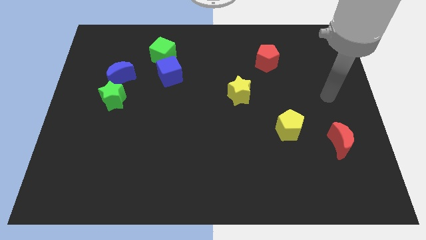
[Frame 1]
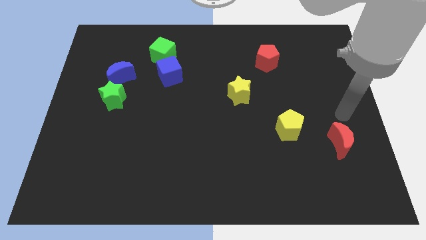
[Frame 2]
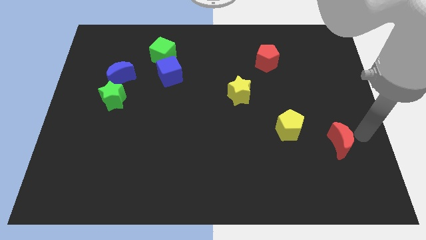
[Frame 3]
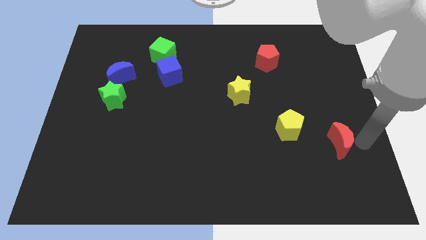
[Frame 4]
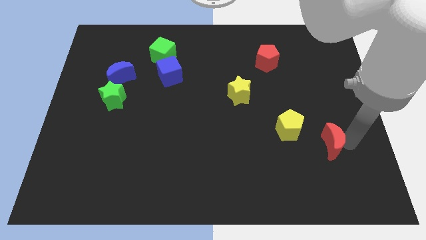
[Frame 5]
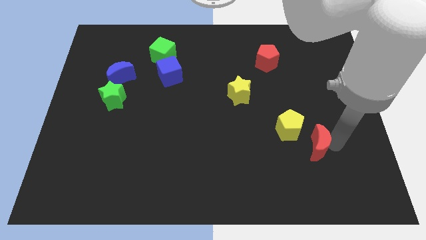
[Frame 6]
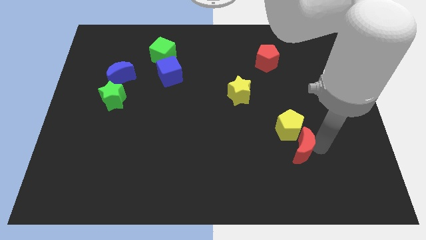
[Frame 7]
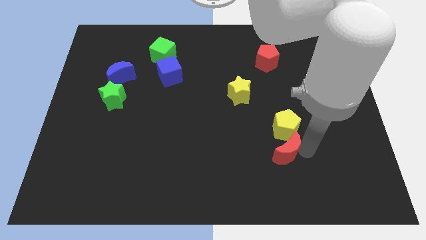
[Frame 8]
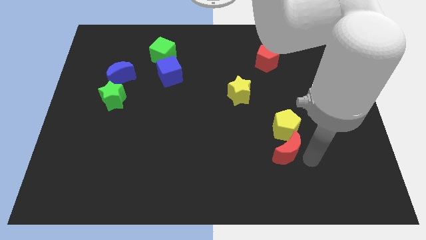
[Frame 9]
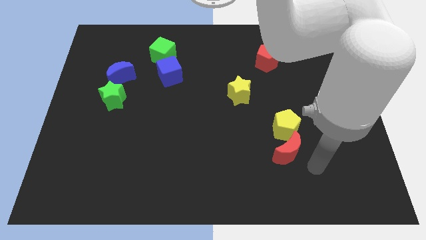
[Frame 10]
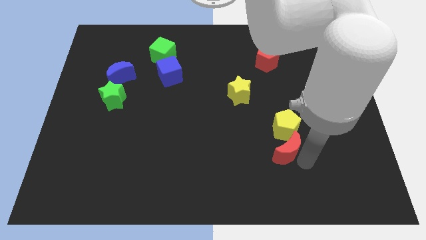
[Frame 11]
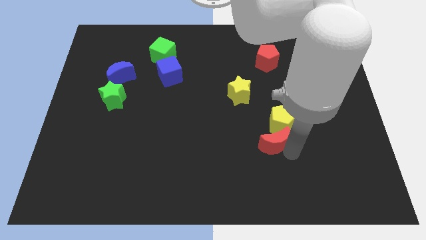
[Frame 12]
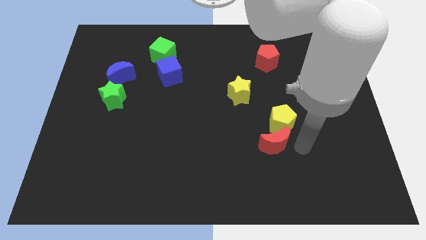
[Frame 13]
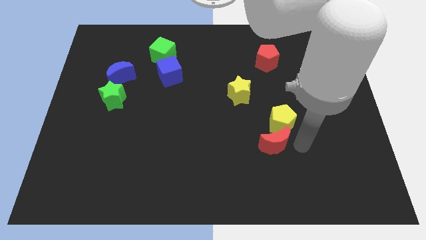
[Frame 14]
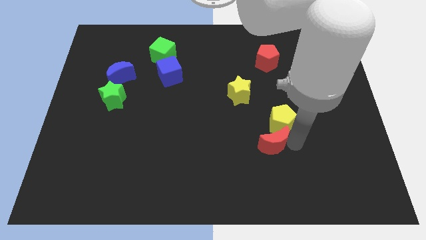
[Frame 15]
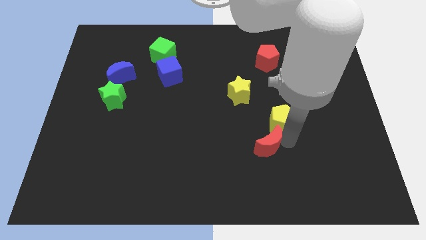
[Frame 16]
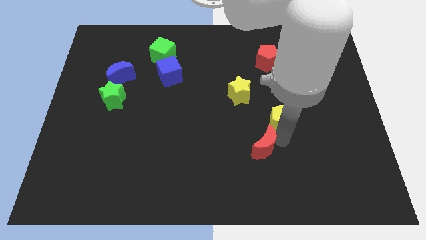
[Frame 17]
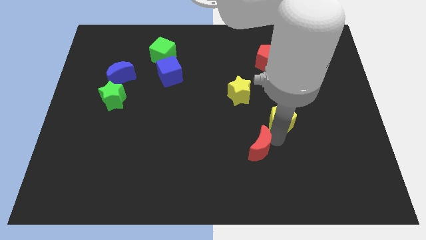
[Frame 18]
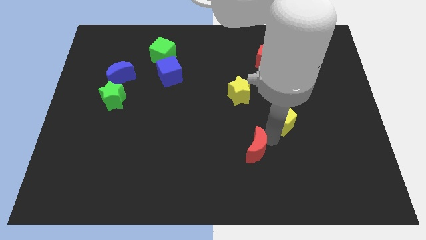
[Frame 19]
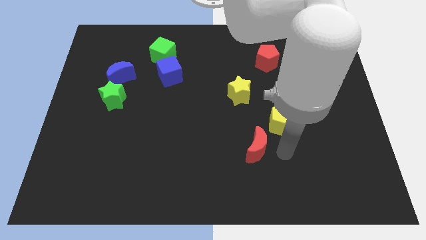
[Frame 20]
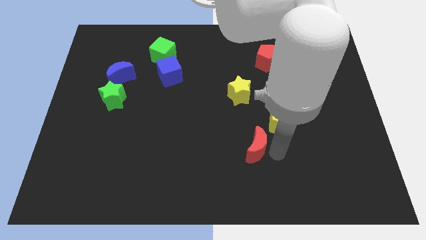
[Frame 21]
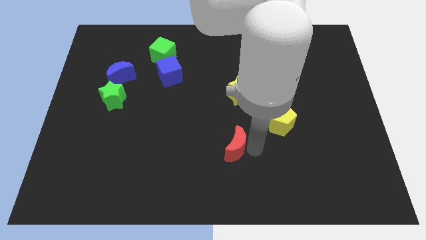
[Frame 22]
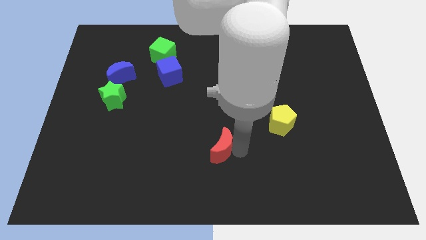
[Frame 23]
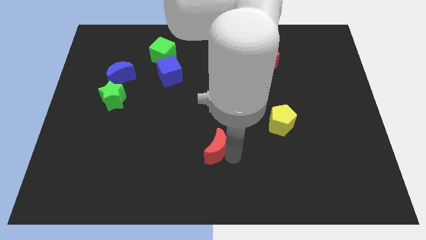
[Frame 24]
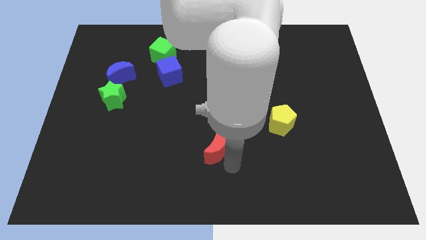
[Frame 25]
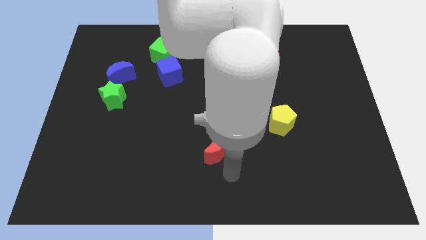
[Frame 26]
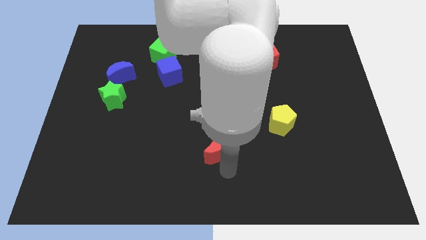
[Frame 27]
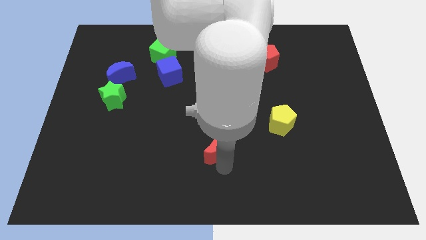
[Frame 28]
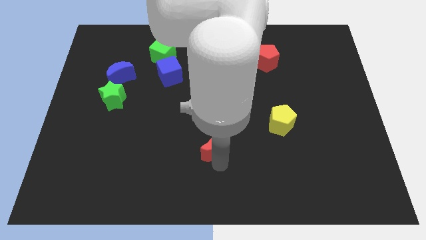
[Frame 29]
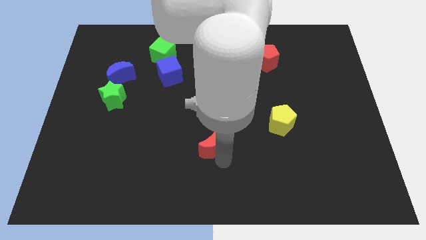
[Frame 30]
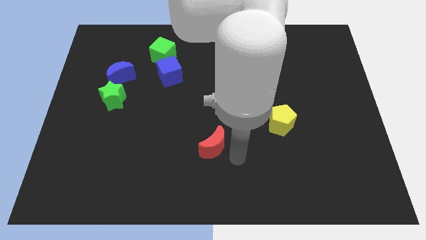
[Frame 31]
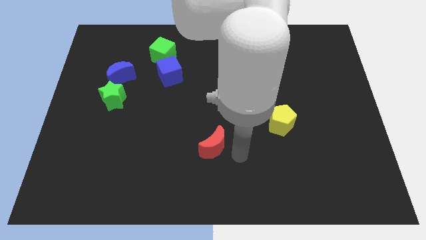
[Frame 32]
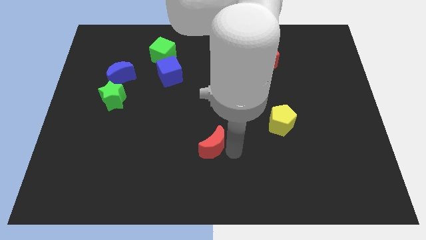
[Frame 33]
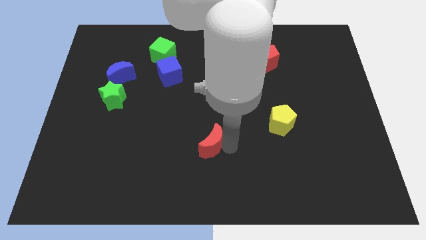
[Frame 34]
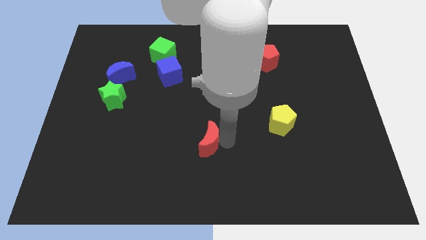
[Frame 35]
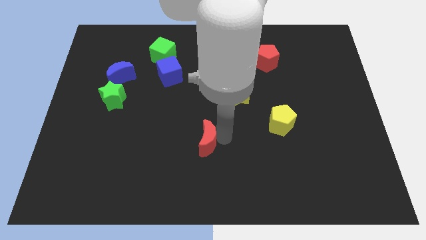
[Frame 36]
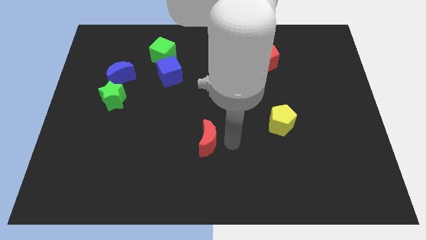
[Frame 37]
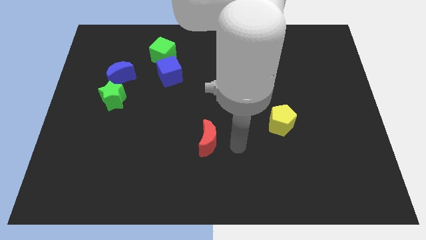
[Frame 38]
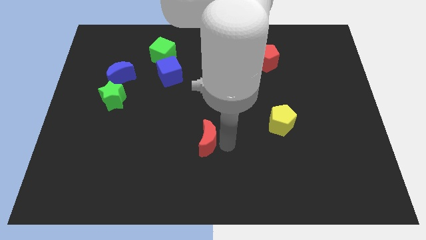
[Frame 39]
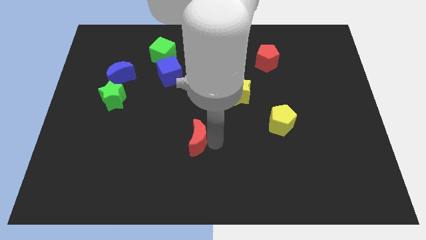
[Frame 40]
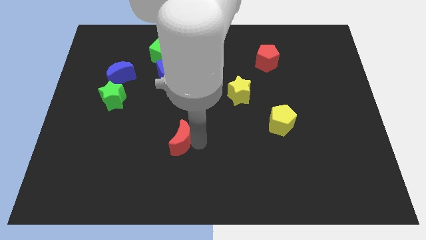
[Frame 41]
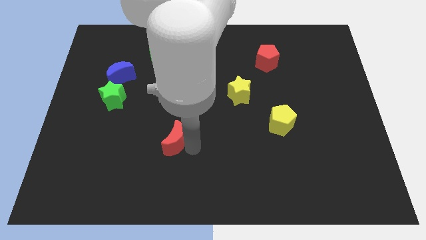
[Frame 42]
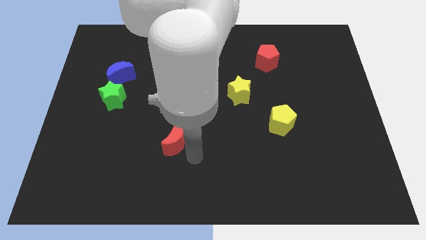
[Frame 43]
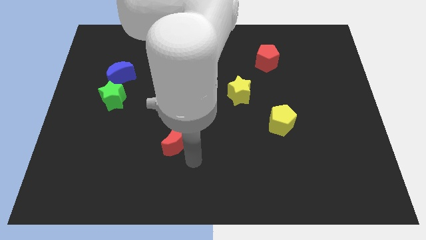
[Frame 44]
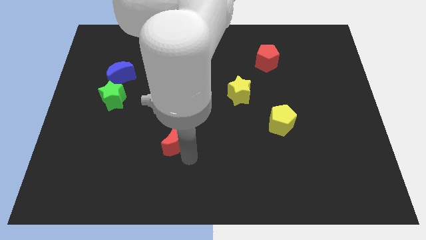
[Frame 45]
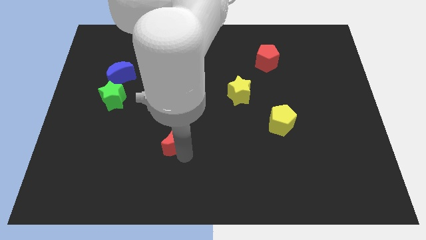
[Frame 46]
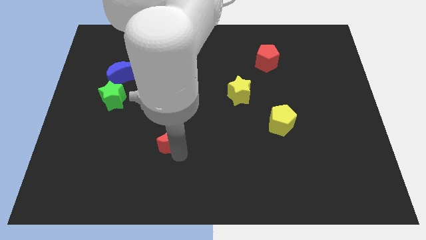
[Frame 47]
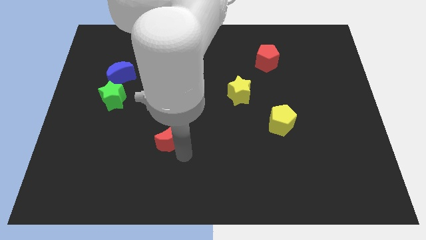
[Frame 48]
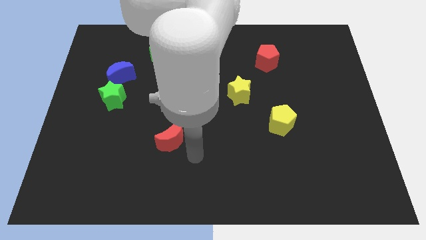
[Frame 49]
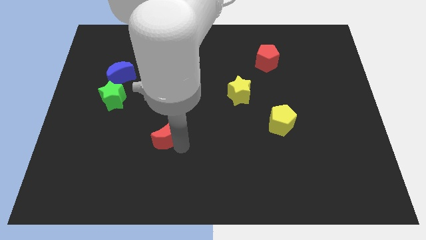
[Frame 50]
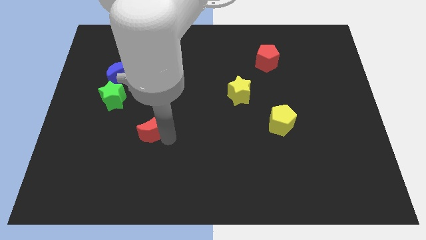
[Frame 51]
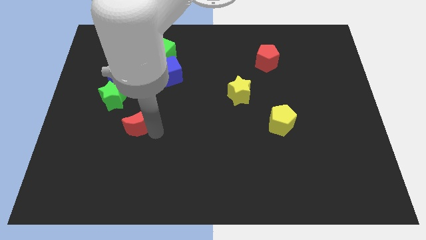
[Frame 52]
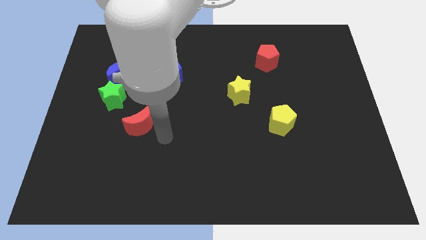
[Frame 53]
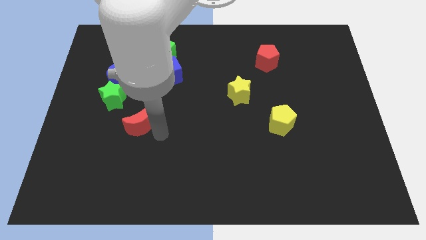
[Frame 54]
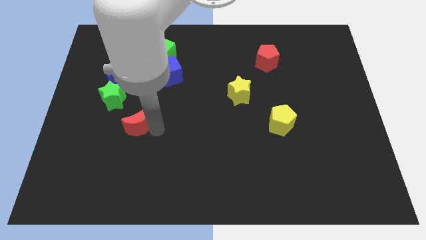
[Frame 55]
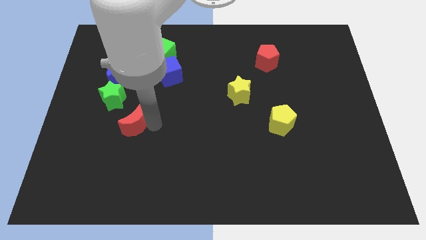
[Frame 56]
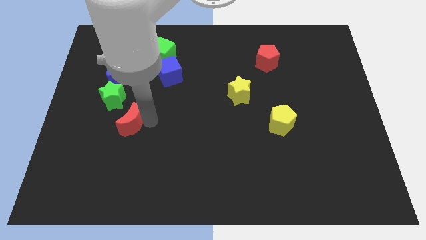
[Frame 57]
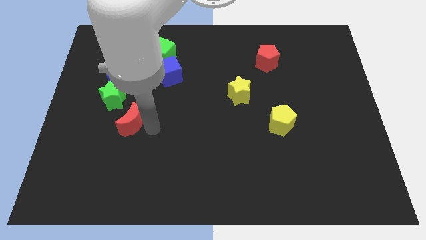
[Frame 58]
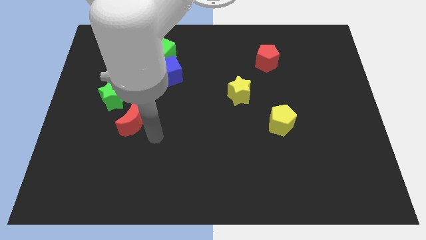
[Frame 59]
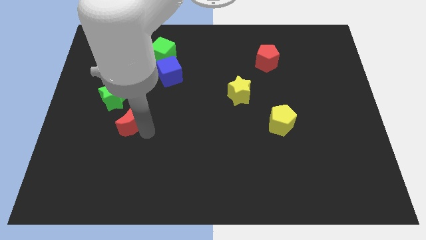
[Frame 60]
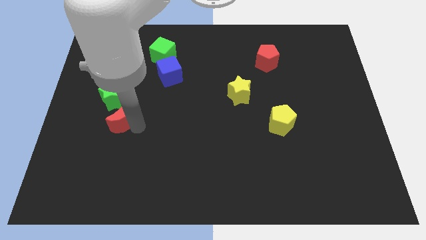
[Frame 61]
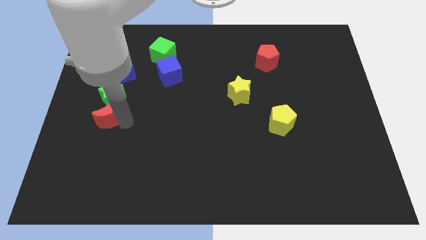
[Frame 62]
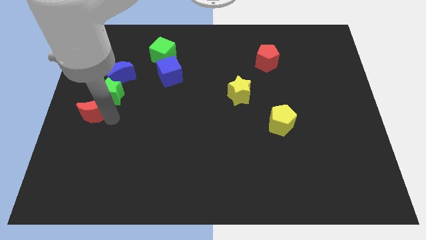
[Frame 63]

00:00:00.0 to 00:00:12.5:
move the red moon to the center left

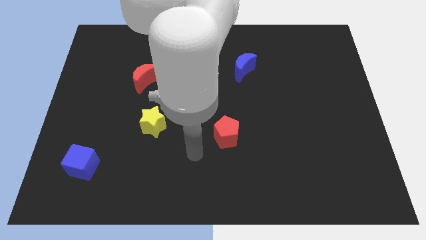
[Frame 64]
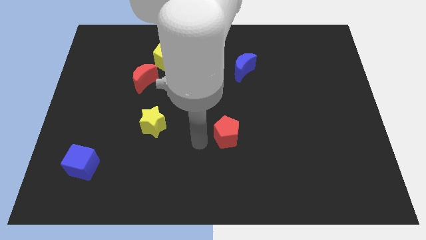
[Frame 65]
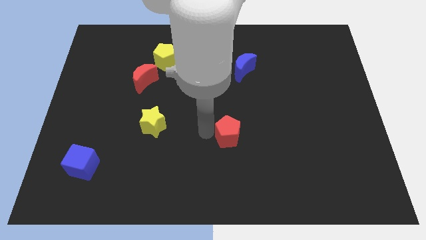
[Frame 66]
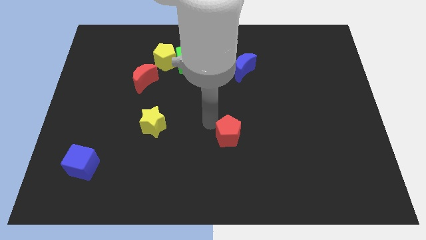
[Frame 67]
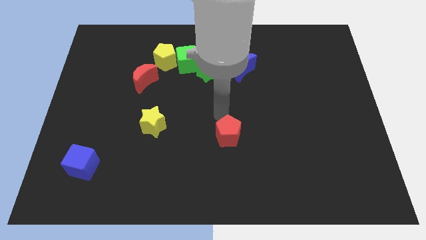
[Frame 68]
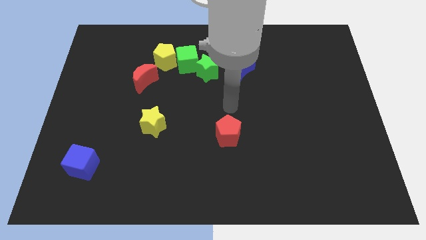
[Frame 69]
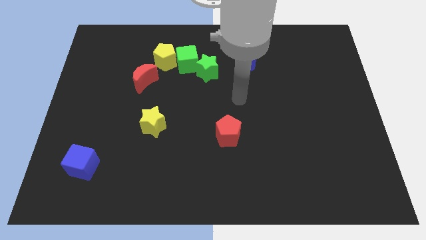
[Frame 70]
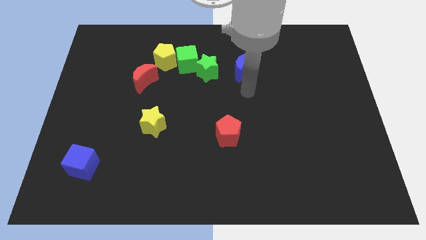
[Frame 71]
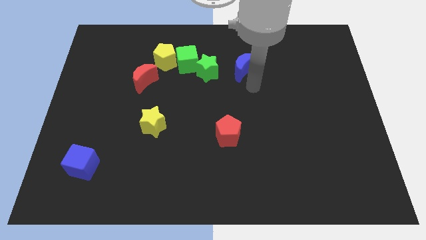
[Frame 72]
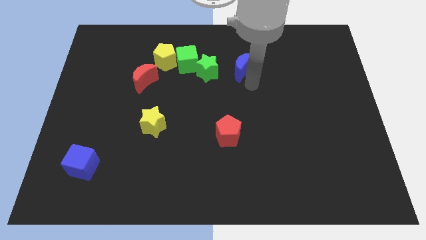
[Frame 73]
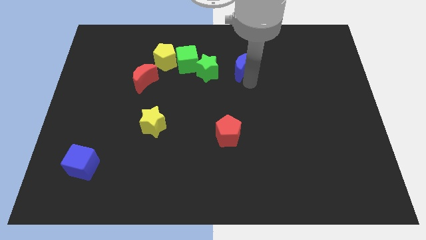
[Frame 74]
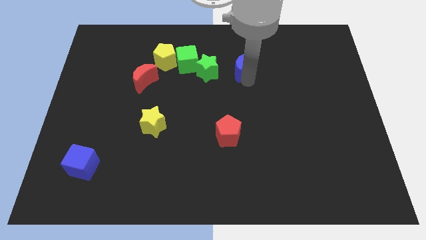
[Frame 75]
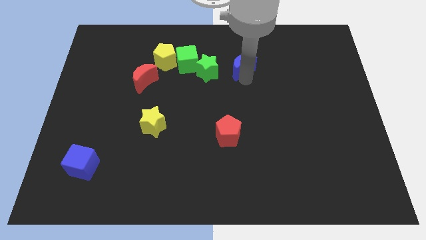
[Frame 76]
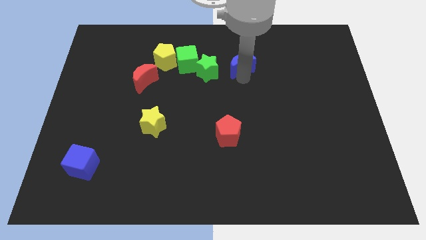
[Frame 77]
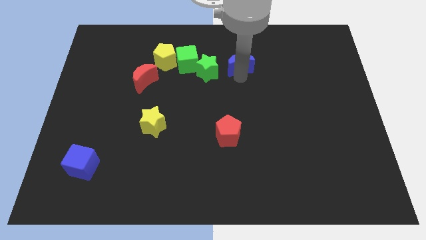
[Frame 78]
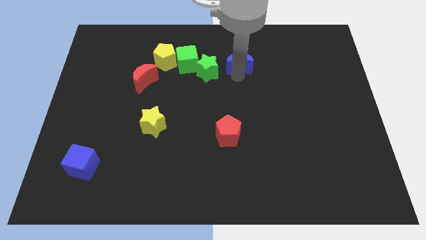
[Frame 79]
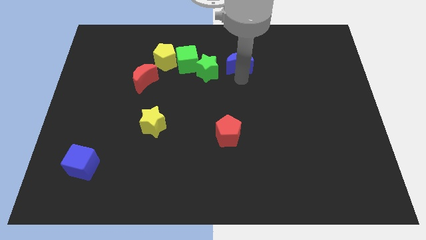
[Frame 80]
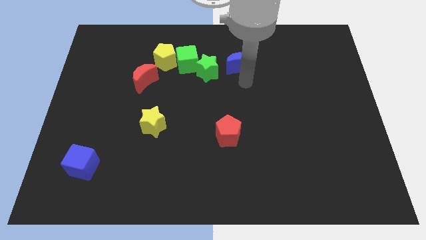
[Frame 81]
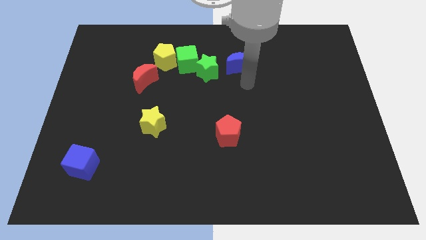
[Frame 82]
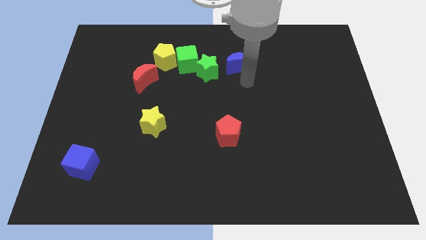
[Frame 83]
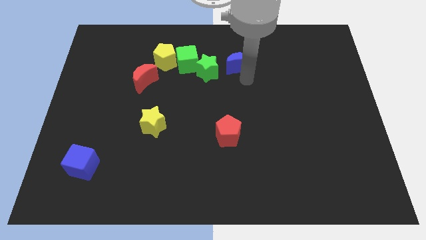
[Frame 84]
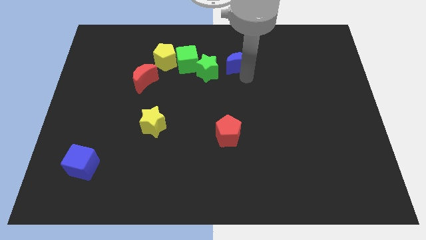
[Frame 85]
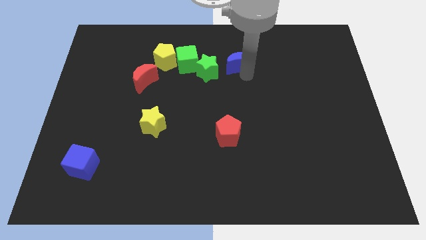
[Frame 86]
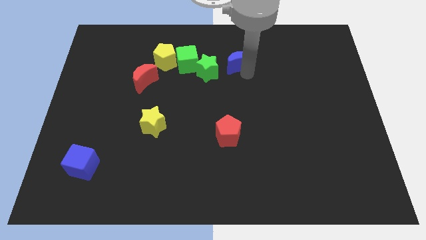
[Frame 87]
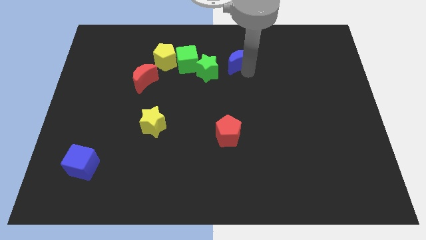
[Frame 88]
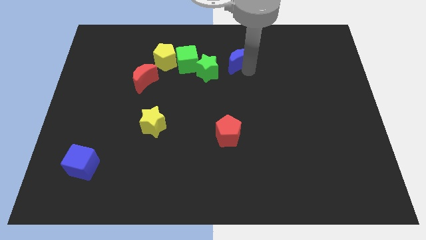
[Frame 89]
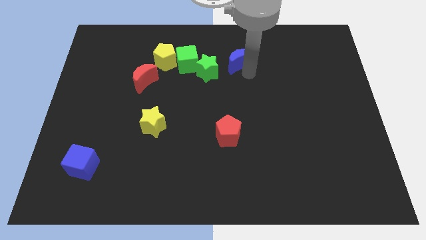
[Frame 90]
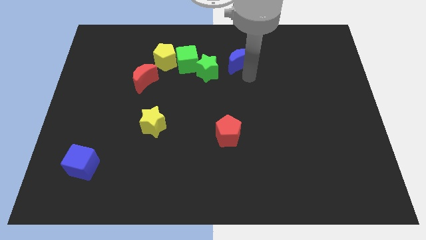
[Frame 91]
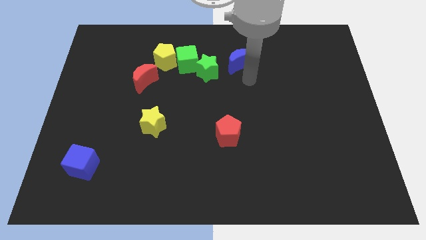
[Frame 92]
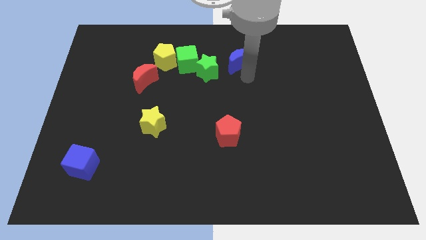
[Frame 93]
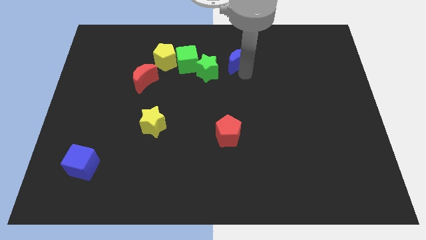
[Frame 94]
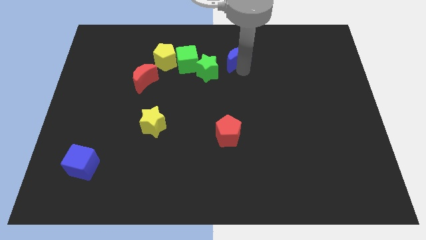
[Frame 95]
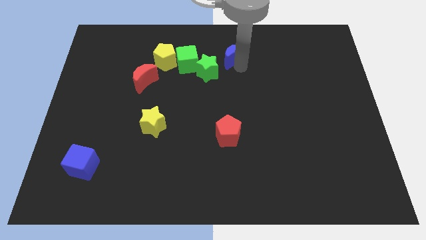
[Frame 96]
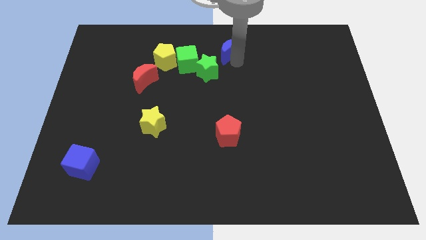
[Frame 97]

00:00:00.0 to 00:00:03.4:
move the blue moon to the top
